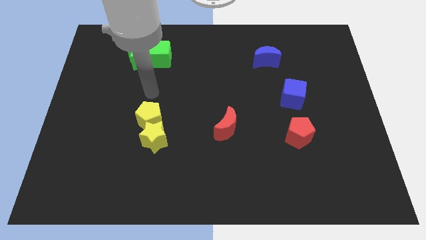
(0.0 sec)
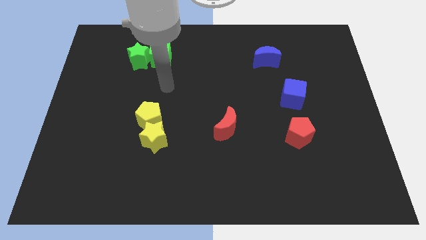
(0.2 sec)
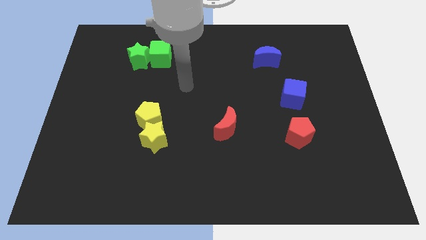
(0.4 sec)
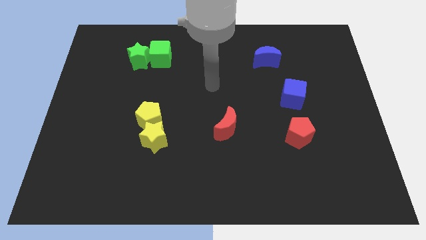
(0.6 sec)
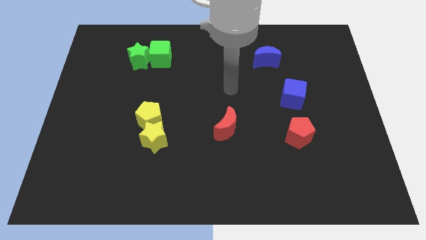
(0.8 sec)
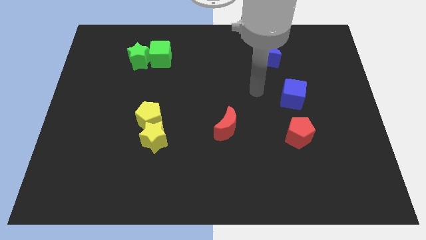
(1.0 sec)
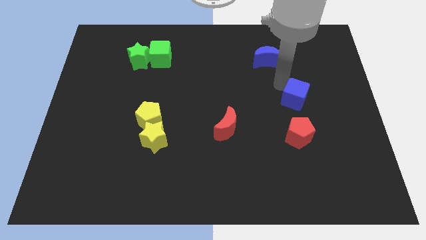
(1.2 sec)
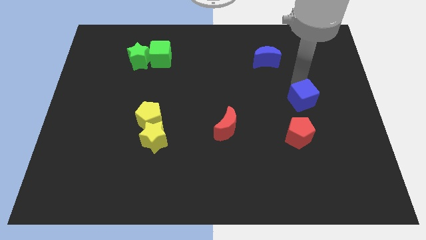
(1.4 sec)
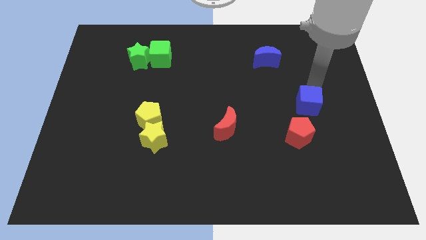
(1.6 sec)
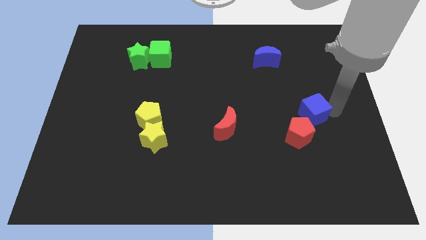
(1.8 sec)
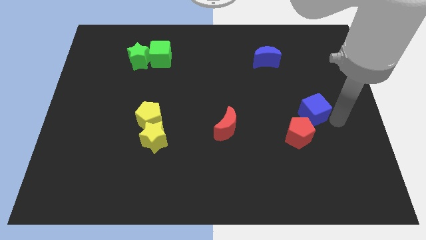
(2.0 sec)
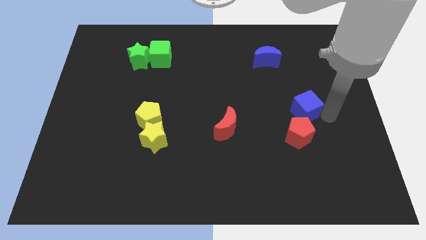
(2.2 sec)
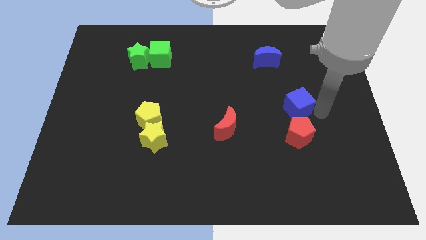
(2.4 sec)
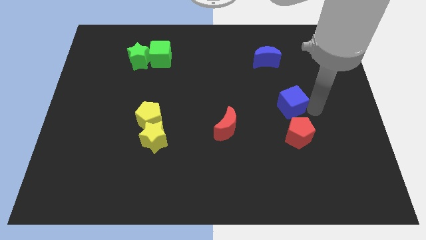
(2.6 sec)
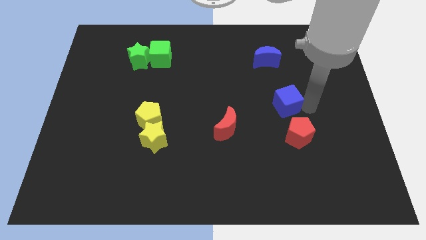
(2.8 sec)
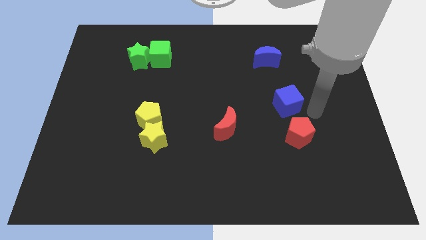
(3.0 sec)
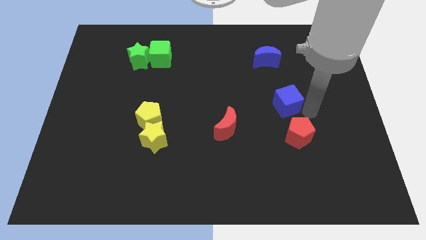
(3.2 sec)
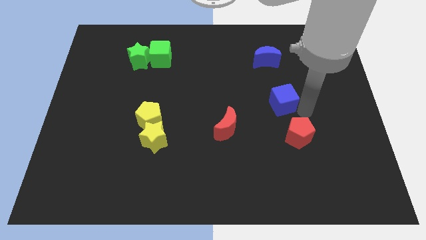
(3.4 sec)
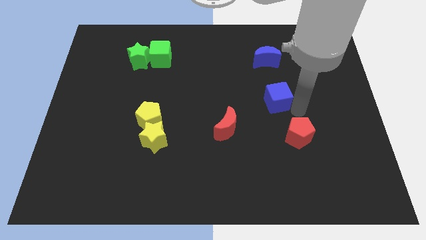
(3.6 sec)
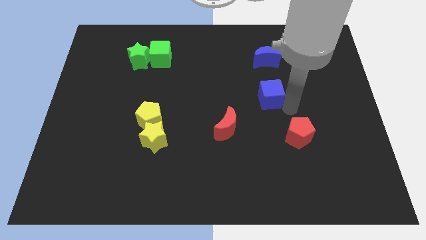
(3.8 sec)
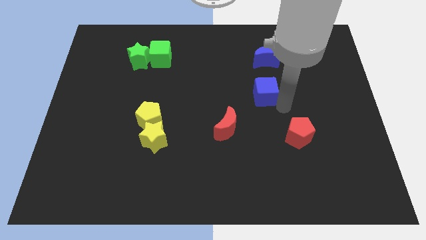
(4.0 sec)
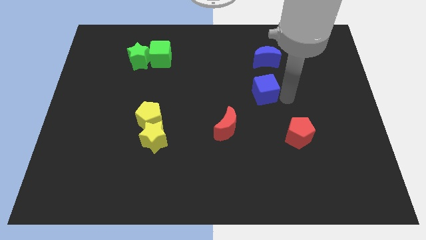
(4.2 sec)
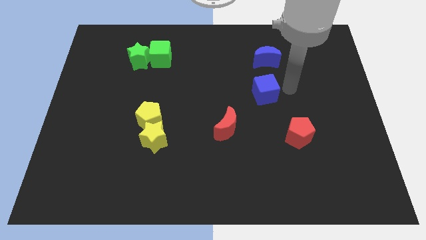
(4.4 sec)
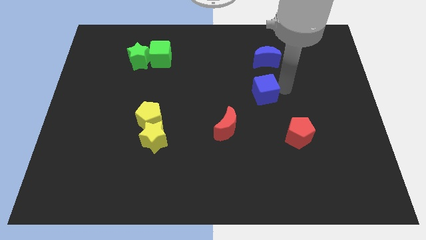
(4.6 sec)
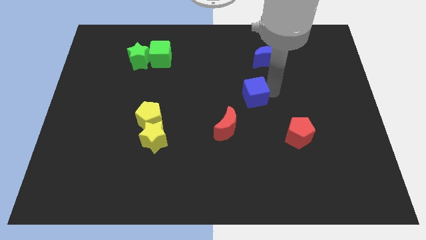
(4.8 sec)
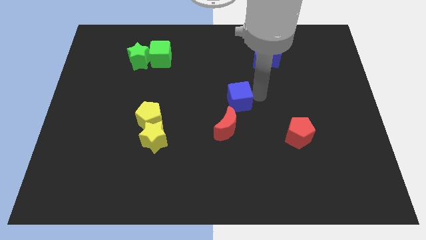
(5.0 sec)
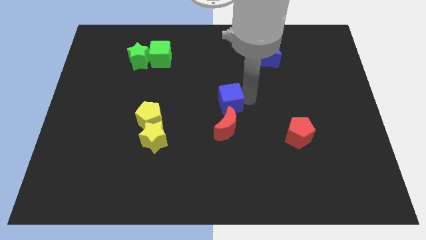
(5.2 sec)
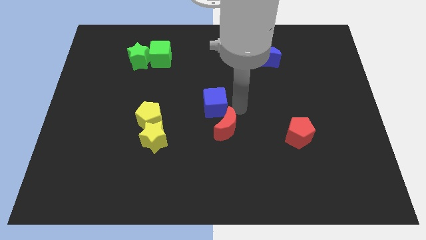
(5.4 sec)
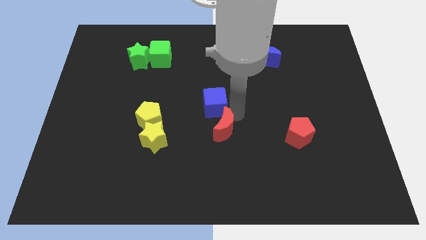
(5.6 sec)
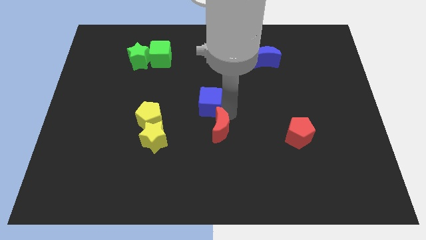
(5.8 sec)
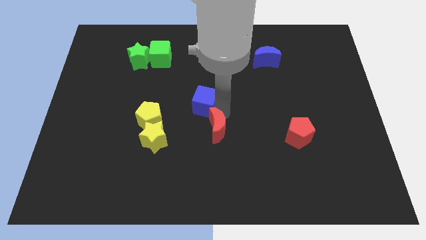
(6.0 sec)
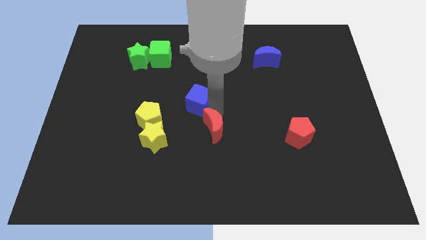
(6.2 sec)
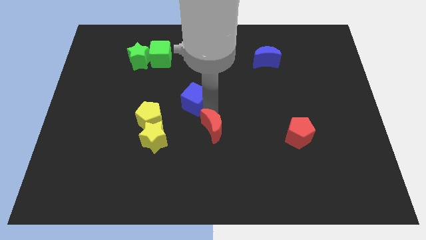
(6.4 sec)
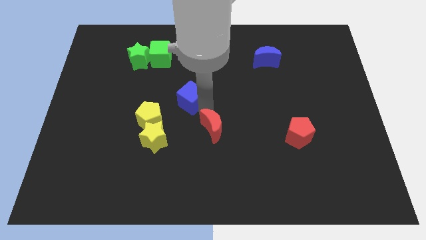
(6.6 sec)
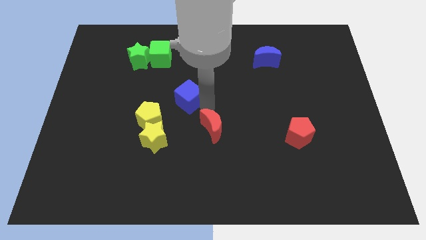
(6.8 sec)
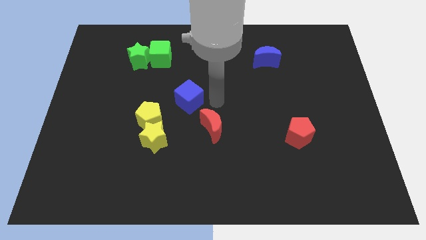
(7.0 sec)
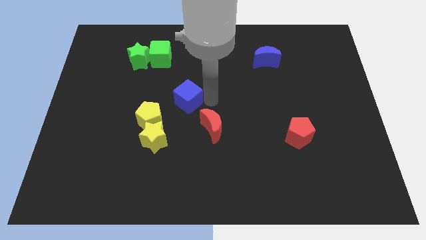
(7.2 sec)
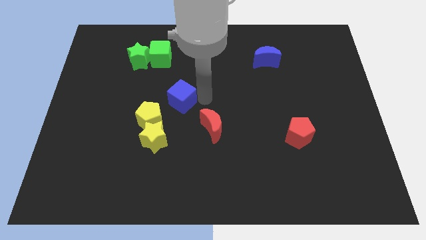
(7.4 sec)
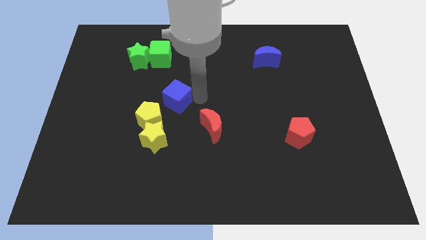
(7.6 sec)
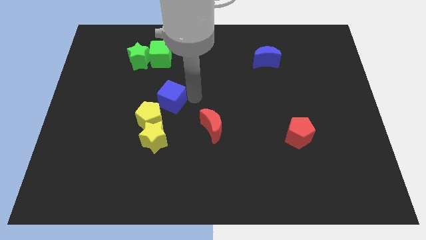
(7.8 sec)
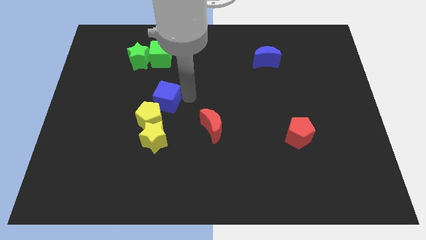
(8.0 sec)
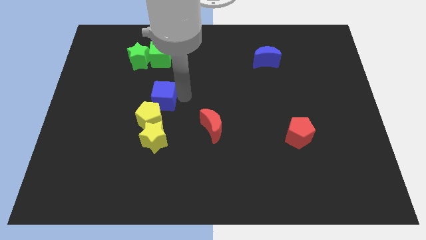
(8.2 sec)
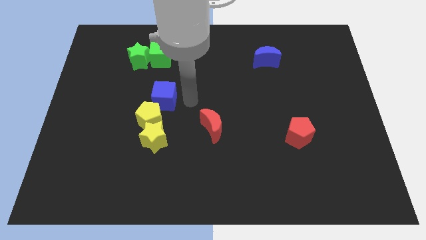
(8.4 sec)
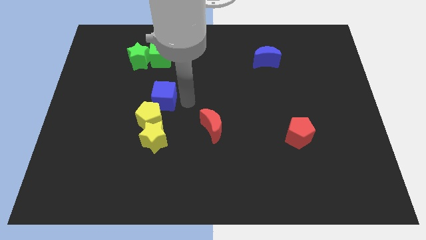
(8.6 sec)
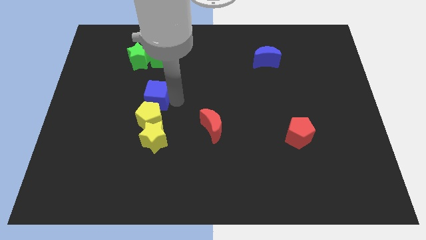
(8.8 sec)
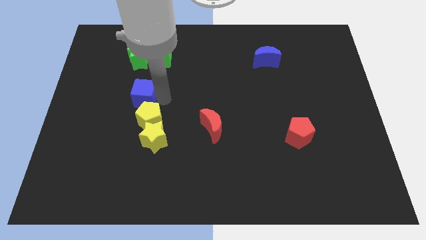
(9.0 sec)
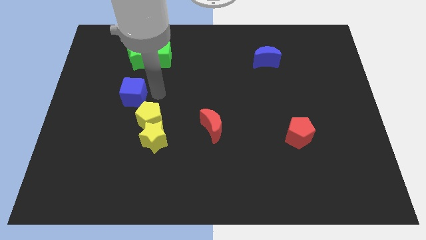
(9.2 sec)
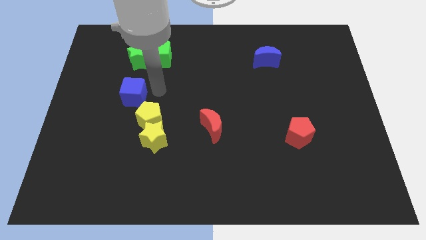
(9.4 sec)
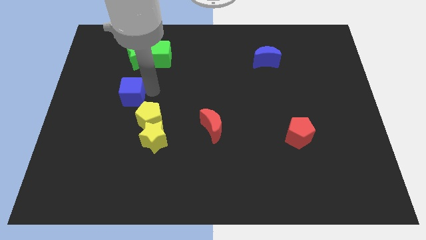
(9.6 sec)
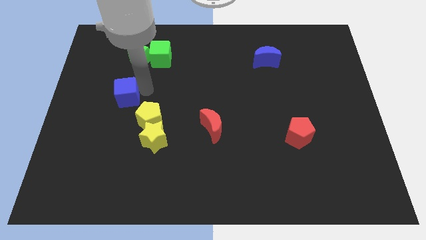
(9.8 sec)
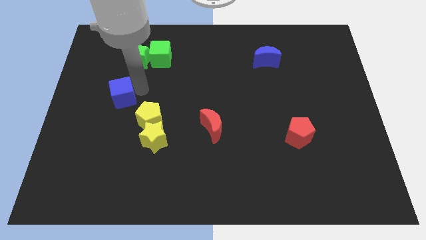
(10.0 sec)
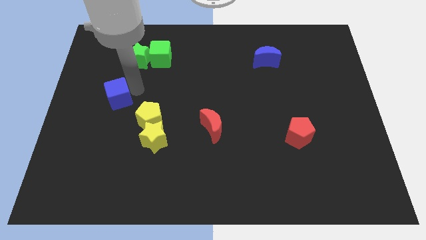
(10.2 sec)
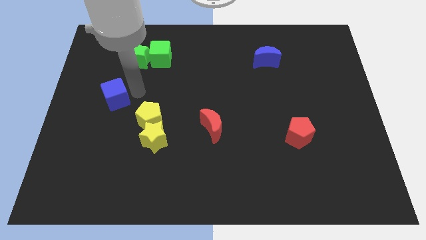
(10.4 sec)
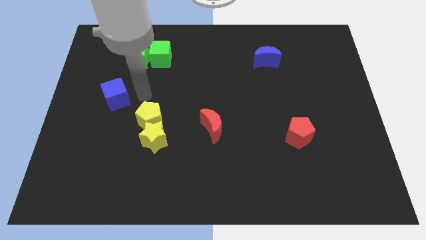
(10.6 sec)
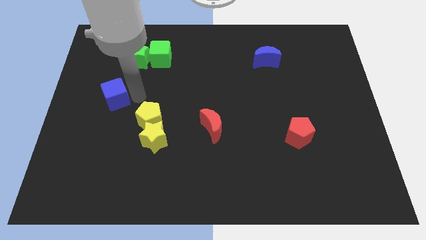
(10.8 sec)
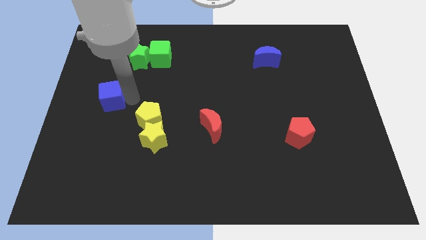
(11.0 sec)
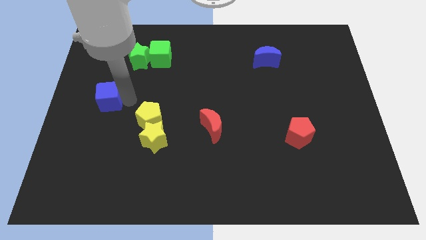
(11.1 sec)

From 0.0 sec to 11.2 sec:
move the blue cube to the left side of the board
